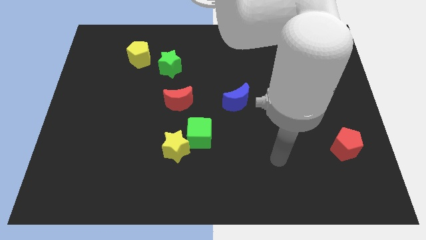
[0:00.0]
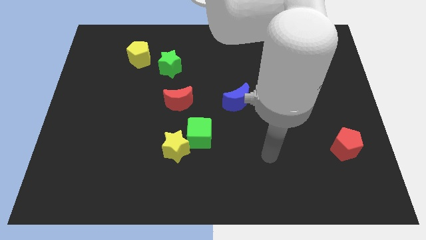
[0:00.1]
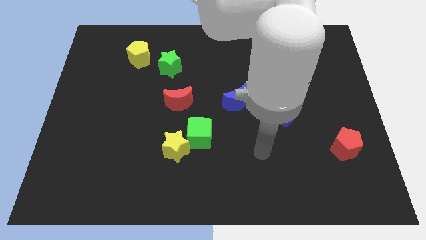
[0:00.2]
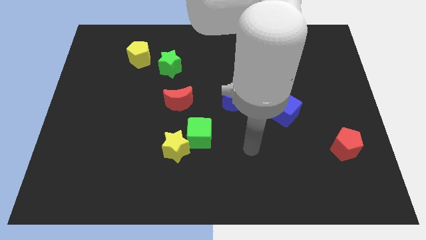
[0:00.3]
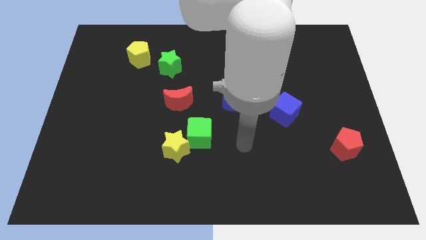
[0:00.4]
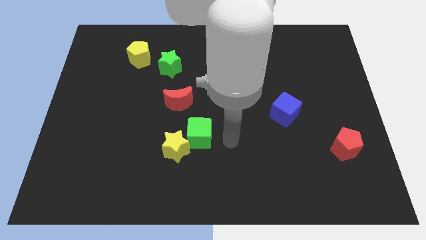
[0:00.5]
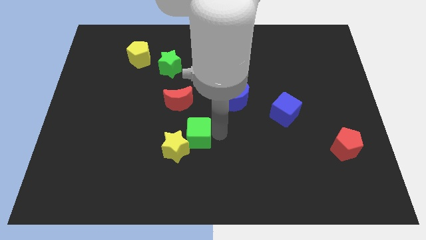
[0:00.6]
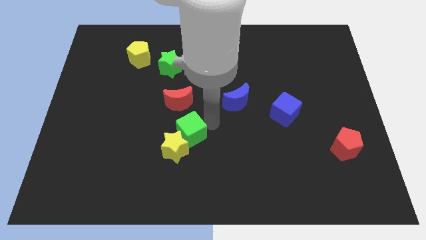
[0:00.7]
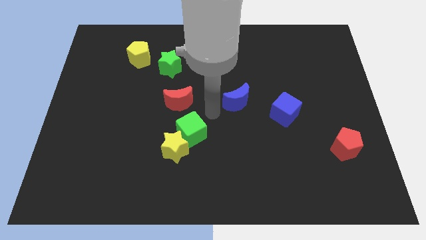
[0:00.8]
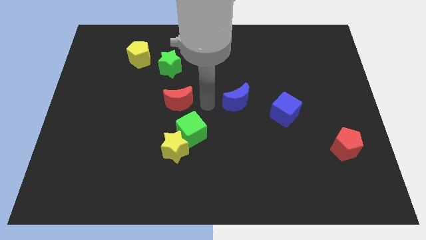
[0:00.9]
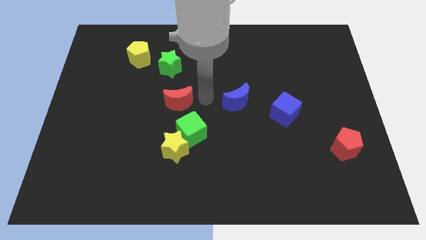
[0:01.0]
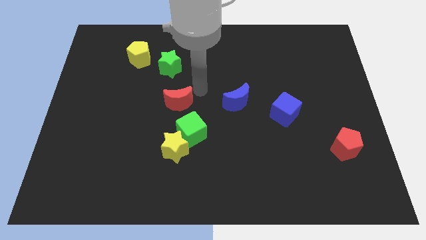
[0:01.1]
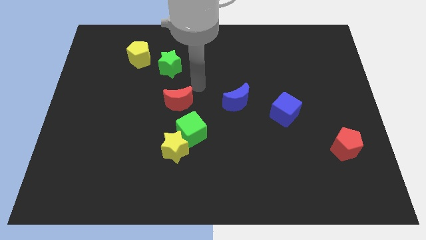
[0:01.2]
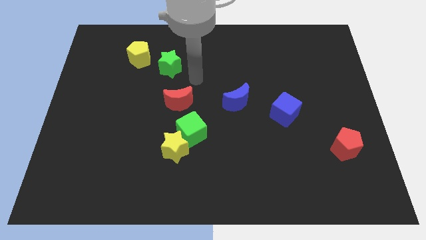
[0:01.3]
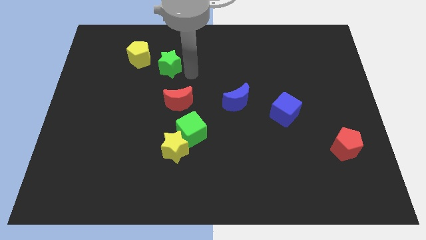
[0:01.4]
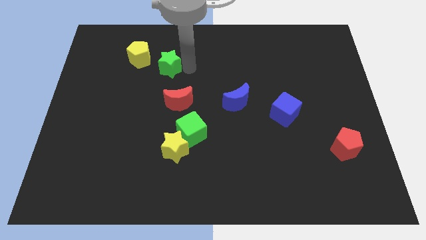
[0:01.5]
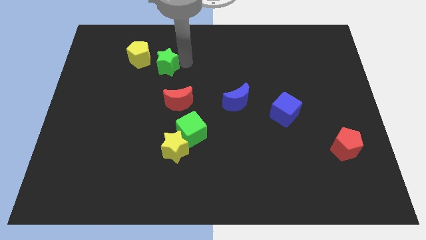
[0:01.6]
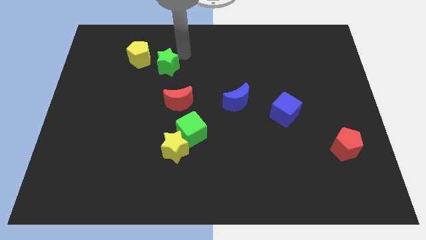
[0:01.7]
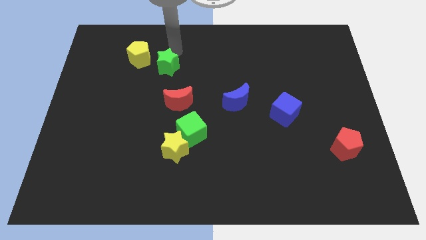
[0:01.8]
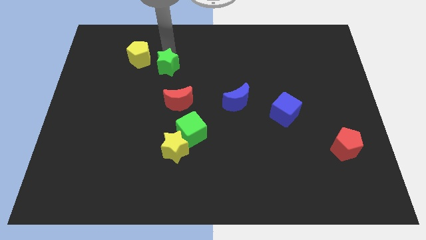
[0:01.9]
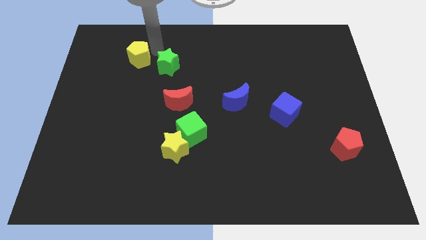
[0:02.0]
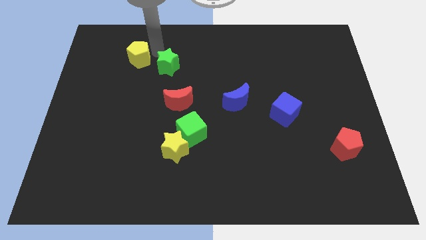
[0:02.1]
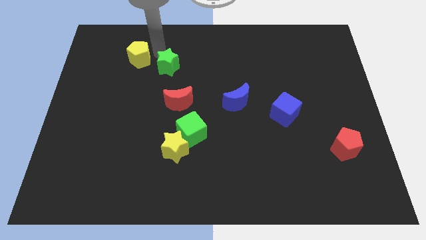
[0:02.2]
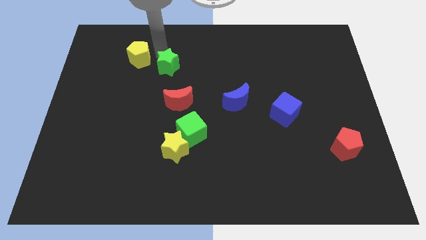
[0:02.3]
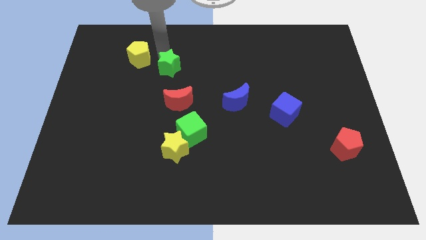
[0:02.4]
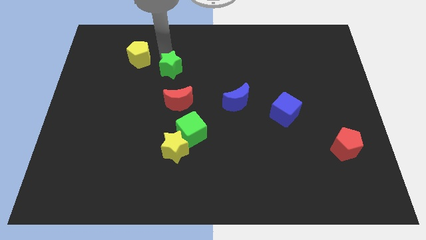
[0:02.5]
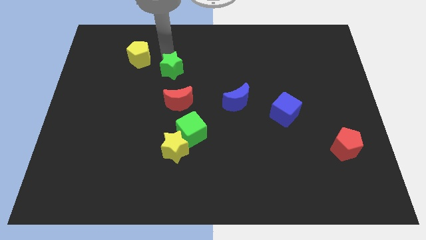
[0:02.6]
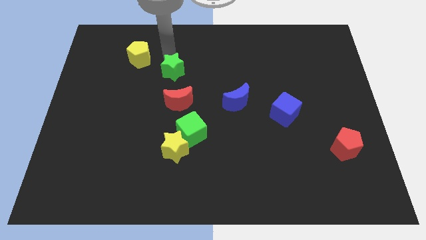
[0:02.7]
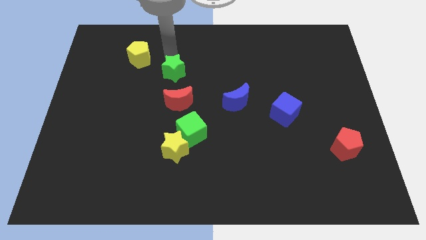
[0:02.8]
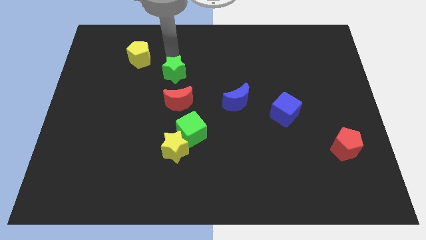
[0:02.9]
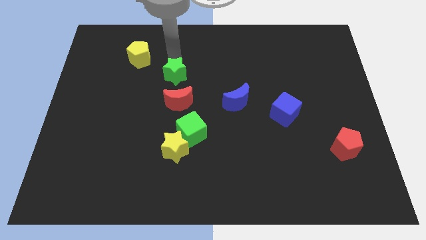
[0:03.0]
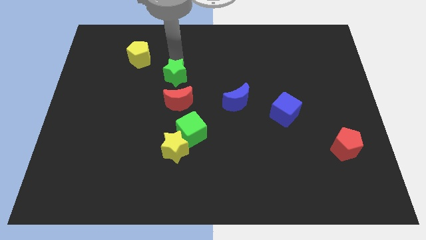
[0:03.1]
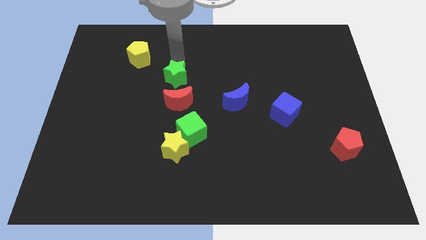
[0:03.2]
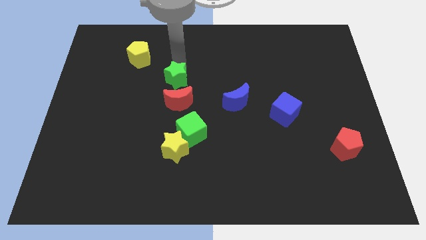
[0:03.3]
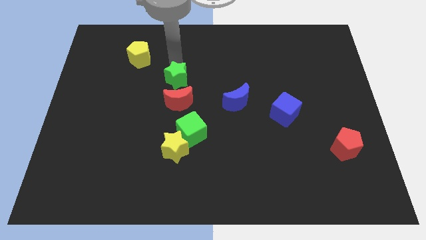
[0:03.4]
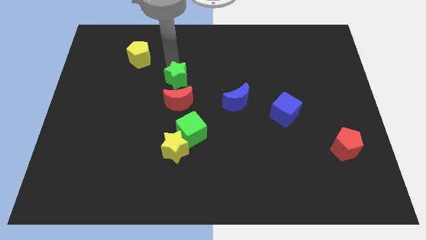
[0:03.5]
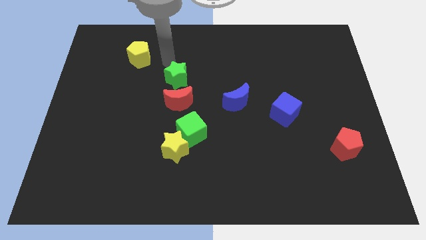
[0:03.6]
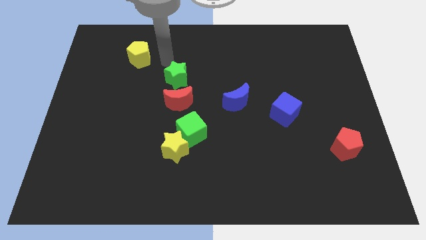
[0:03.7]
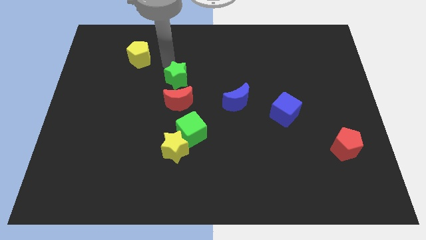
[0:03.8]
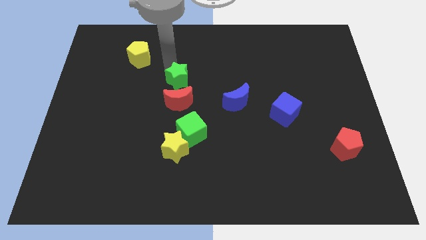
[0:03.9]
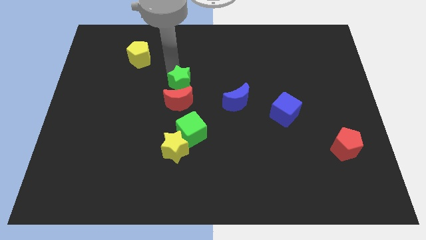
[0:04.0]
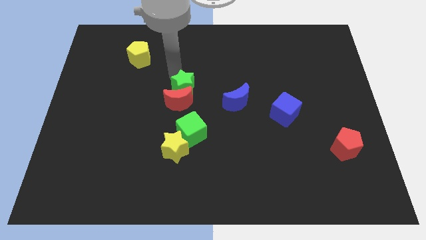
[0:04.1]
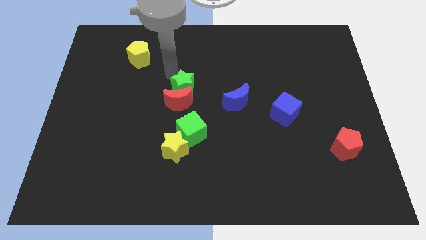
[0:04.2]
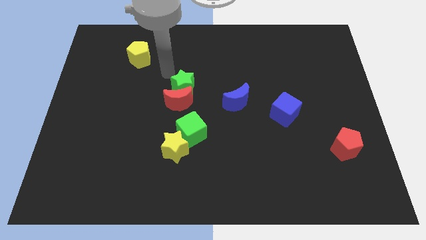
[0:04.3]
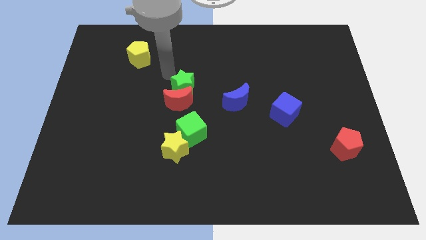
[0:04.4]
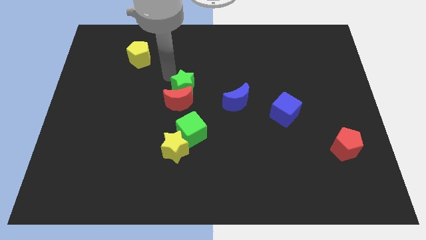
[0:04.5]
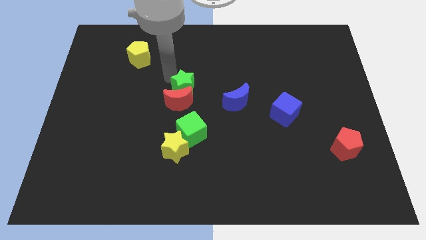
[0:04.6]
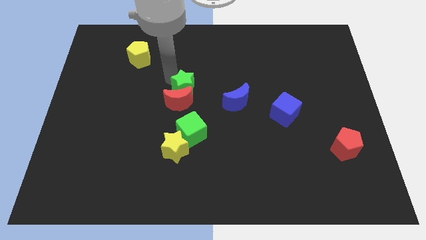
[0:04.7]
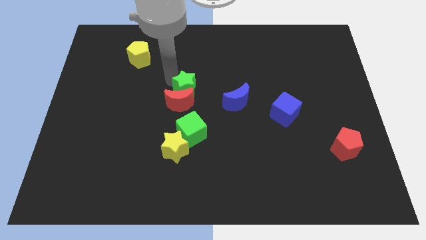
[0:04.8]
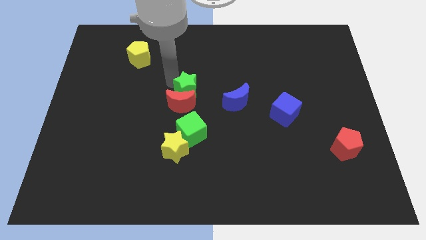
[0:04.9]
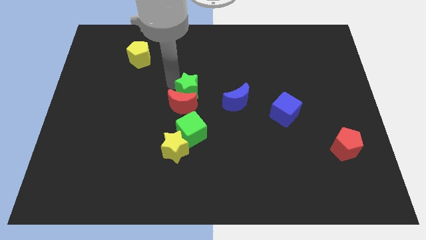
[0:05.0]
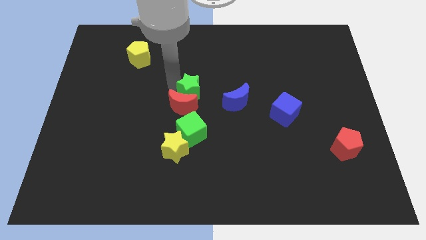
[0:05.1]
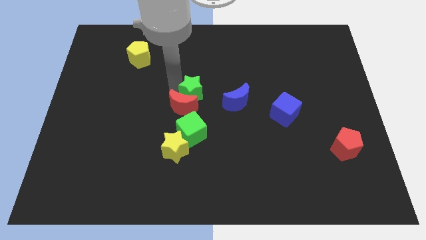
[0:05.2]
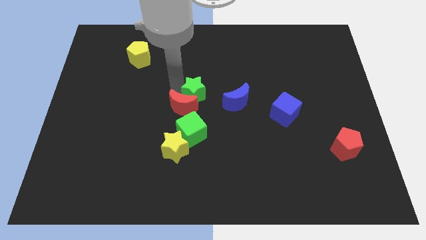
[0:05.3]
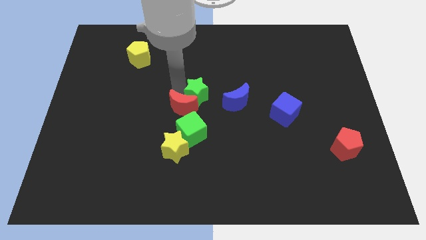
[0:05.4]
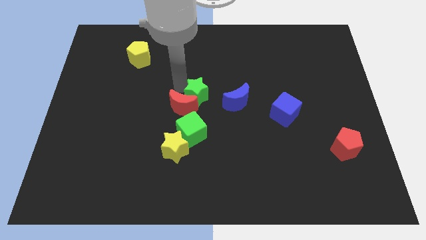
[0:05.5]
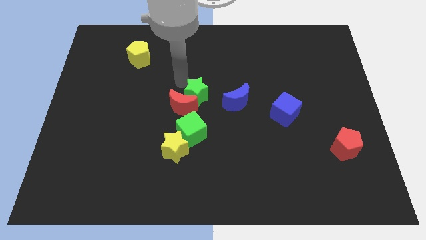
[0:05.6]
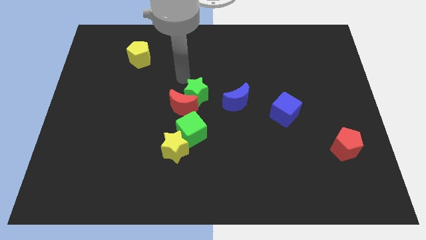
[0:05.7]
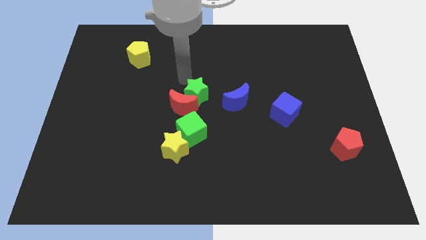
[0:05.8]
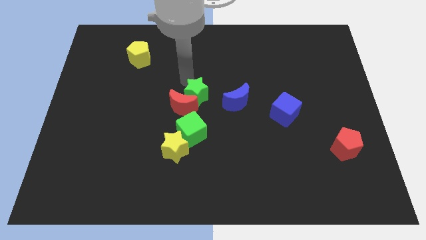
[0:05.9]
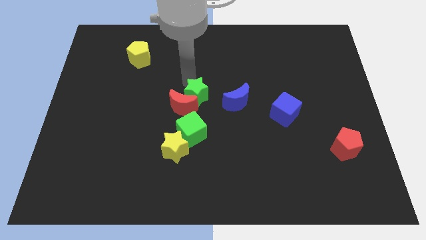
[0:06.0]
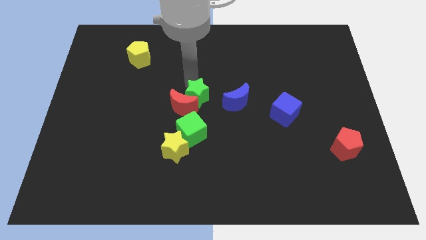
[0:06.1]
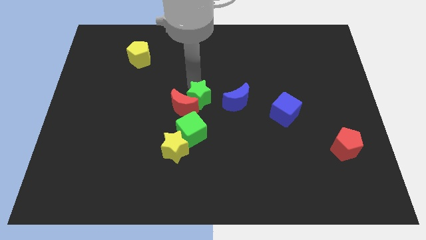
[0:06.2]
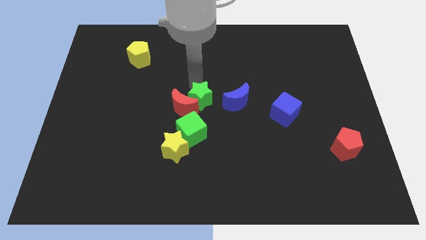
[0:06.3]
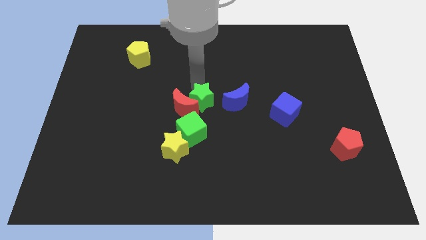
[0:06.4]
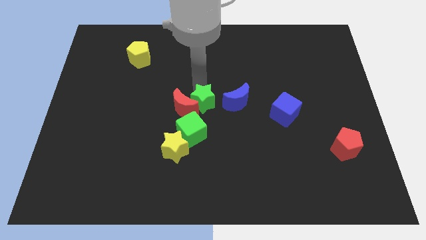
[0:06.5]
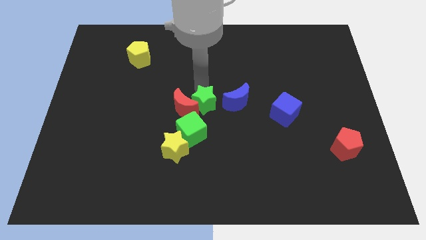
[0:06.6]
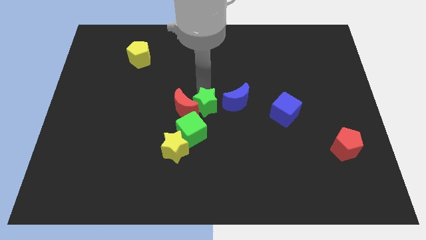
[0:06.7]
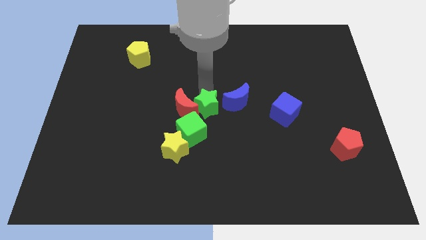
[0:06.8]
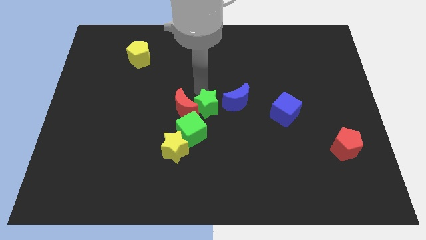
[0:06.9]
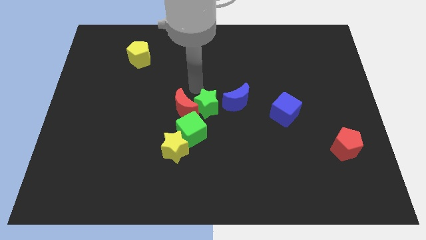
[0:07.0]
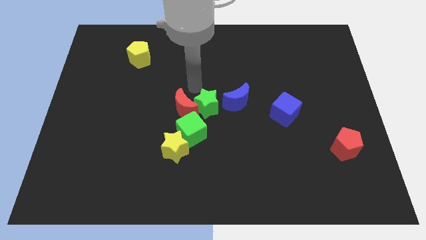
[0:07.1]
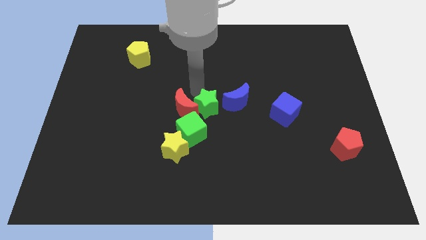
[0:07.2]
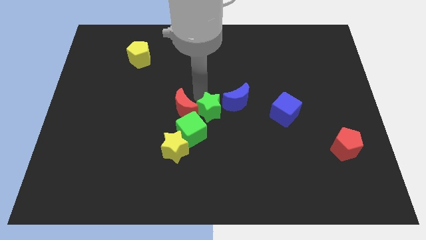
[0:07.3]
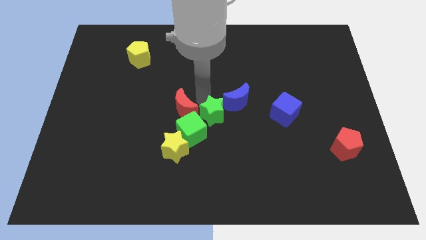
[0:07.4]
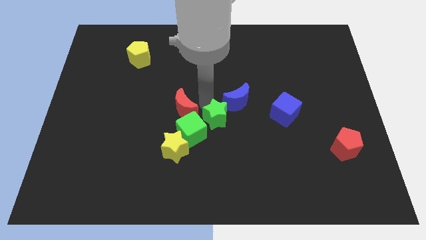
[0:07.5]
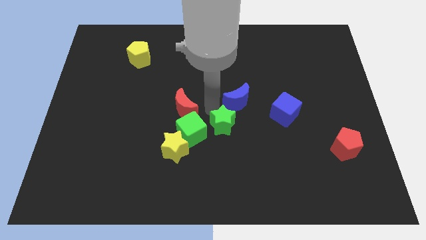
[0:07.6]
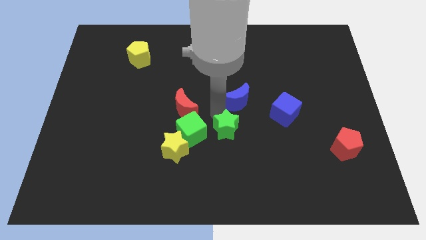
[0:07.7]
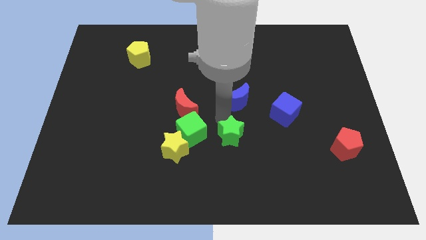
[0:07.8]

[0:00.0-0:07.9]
slide the green star right of the yellow star

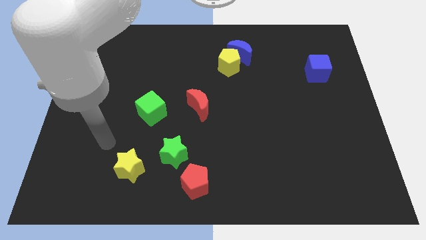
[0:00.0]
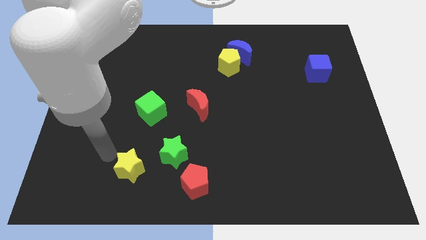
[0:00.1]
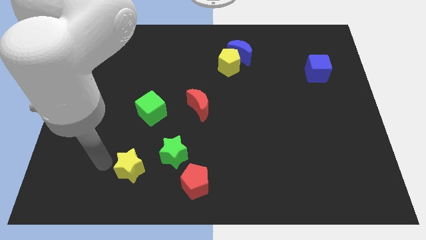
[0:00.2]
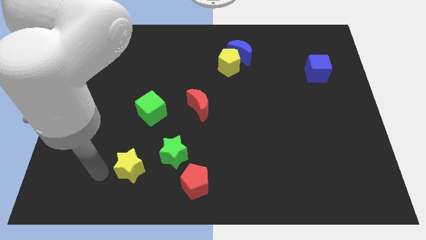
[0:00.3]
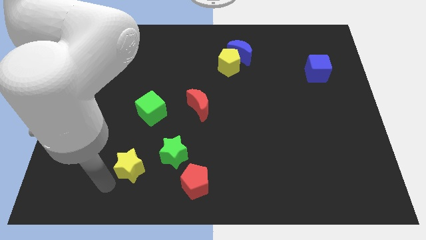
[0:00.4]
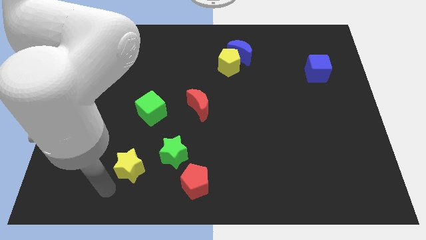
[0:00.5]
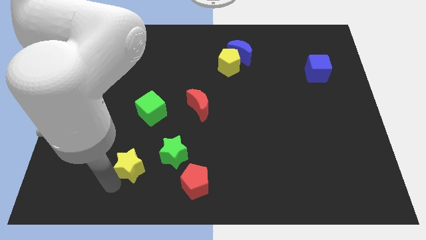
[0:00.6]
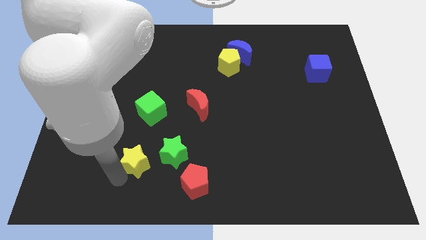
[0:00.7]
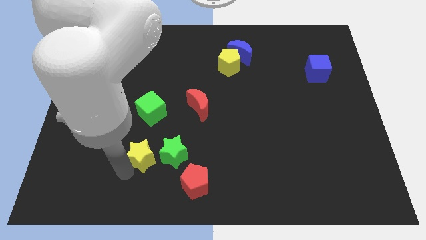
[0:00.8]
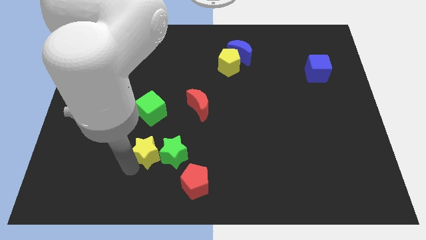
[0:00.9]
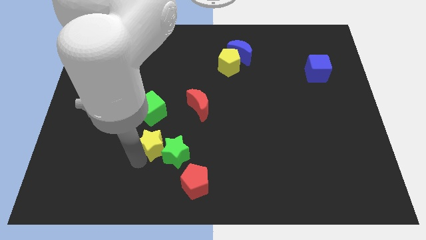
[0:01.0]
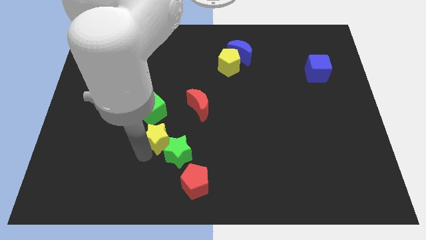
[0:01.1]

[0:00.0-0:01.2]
put the yellow star to the bottom right side of the green cube
